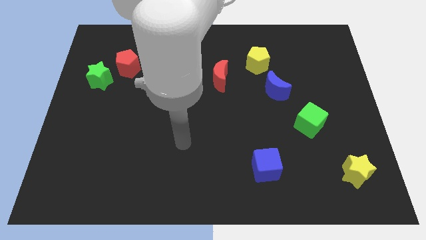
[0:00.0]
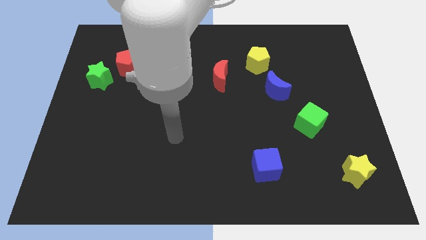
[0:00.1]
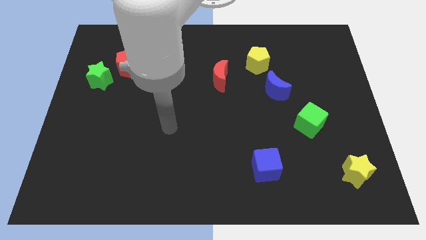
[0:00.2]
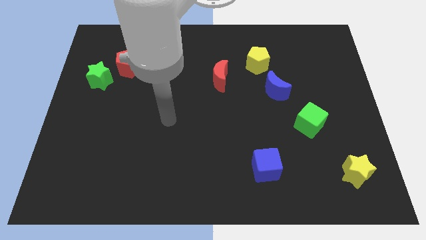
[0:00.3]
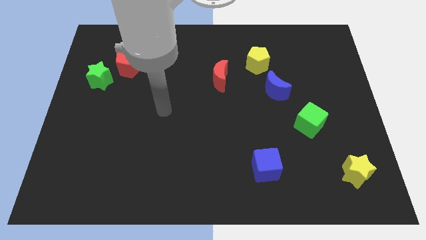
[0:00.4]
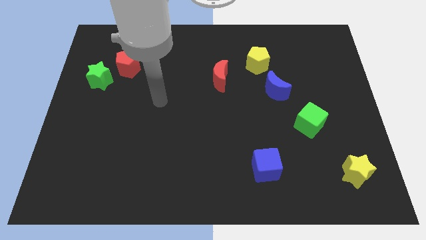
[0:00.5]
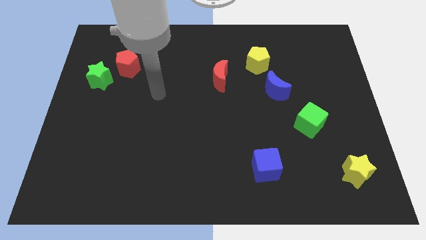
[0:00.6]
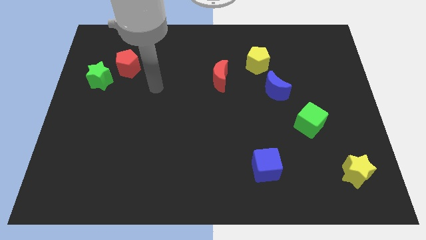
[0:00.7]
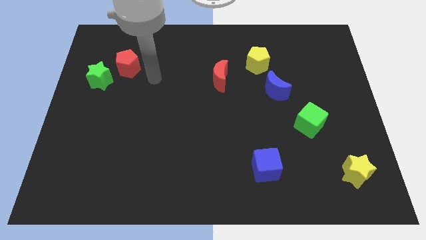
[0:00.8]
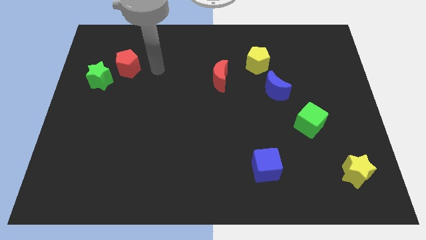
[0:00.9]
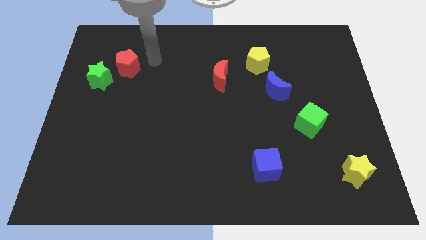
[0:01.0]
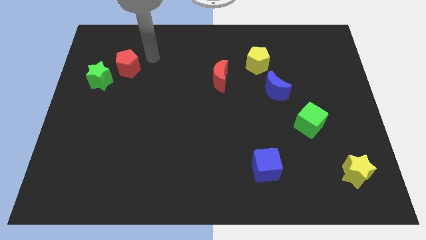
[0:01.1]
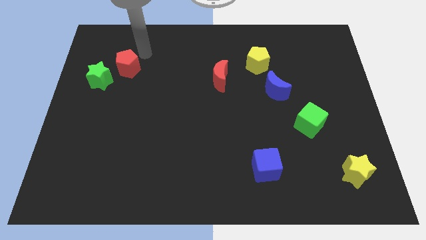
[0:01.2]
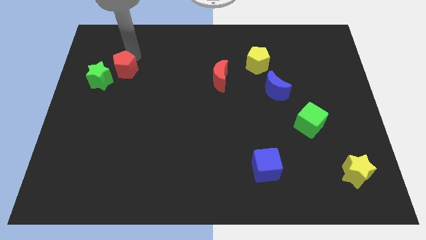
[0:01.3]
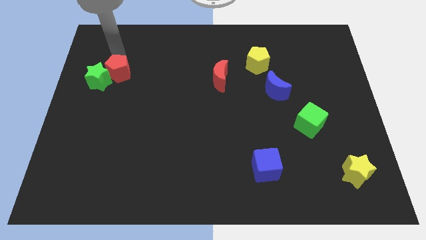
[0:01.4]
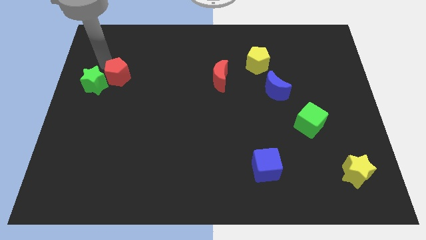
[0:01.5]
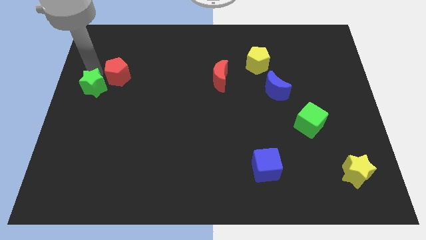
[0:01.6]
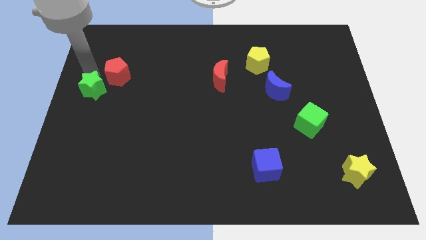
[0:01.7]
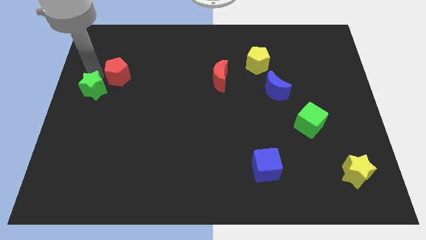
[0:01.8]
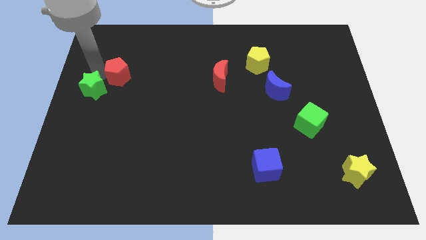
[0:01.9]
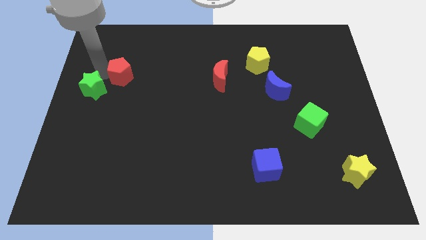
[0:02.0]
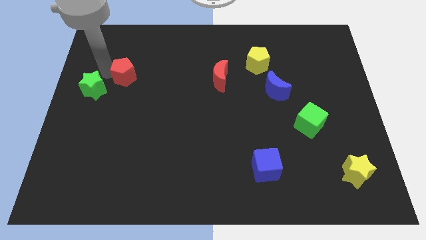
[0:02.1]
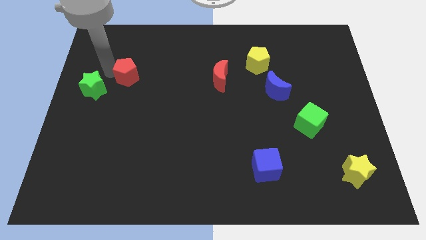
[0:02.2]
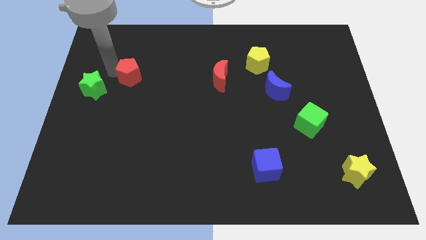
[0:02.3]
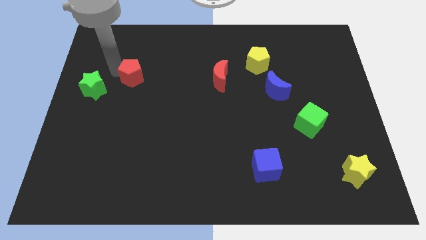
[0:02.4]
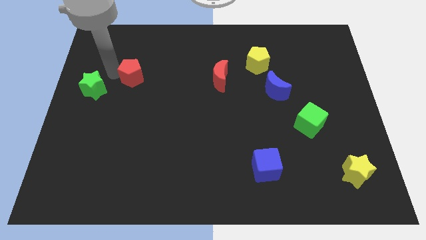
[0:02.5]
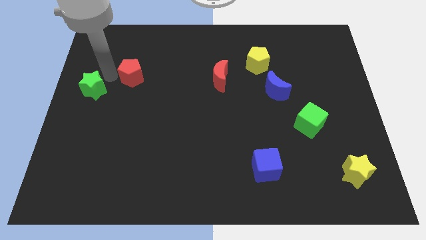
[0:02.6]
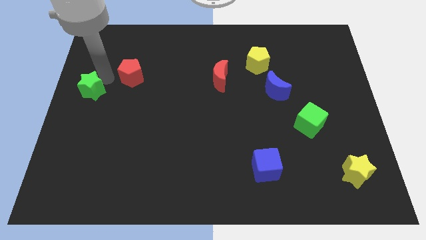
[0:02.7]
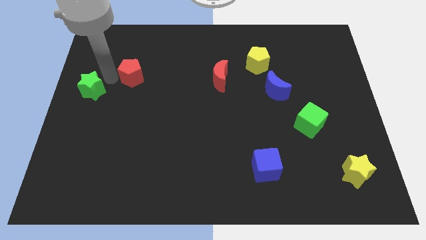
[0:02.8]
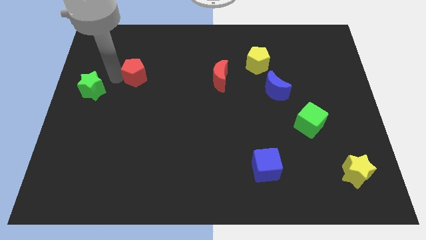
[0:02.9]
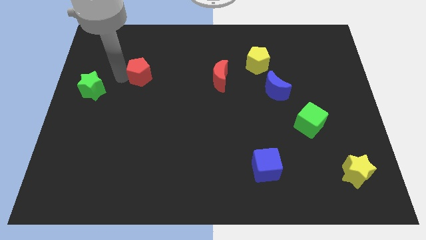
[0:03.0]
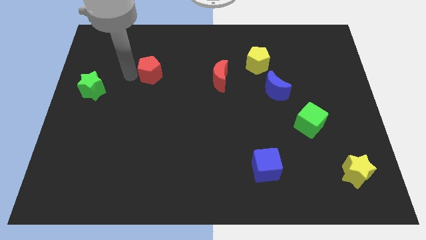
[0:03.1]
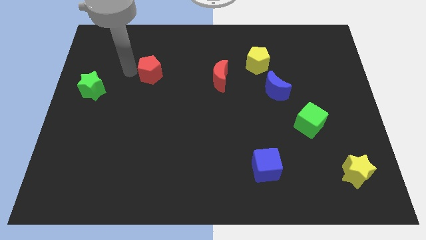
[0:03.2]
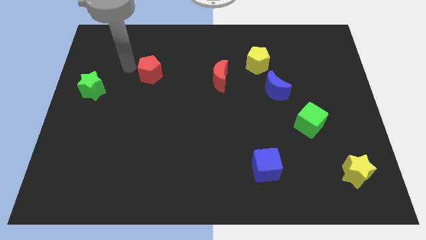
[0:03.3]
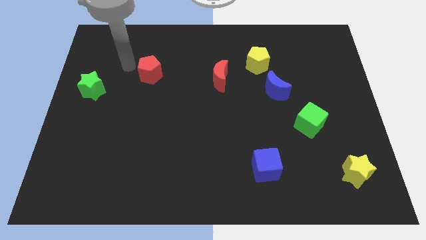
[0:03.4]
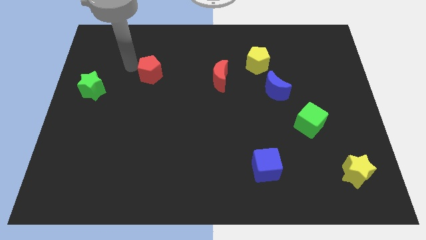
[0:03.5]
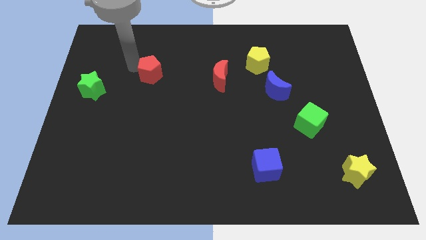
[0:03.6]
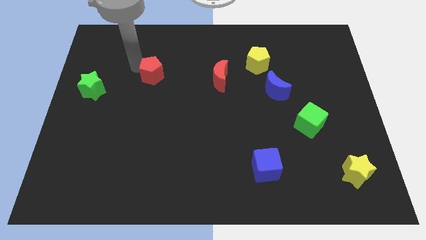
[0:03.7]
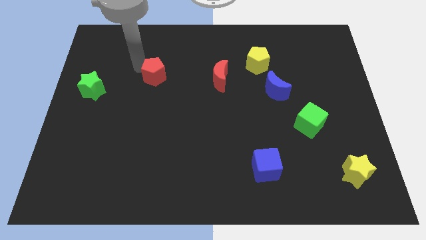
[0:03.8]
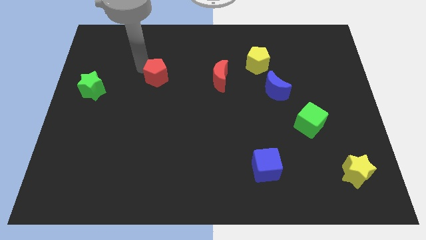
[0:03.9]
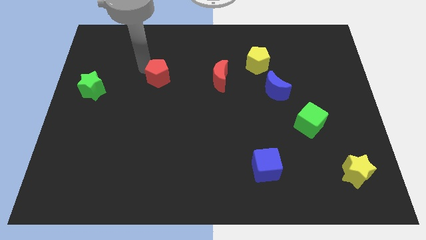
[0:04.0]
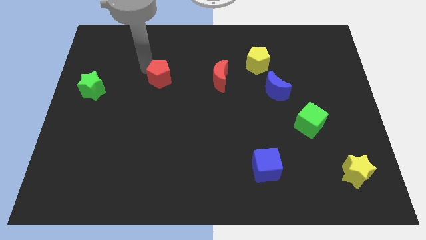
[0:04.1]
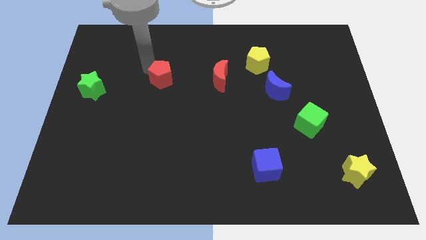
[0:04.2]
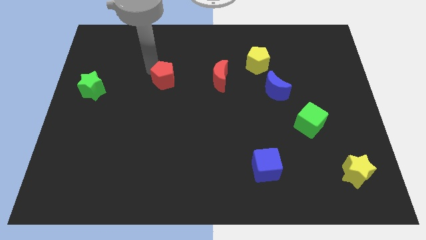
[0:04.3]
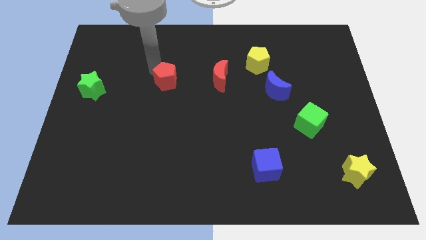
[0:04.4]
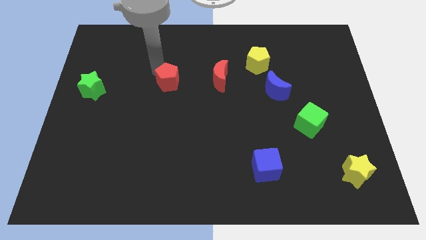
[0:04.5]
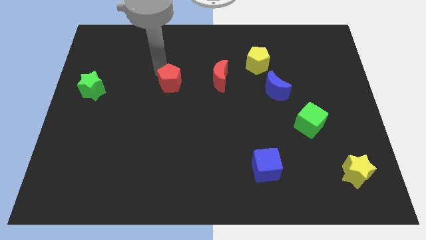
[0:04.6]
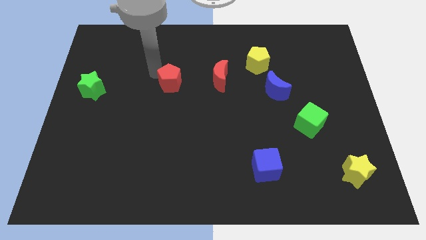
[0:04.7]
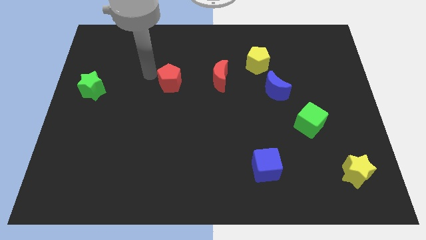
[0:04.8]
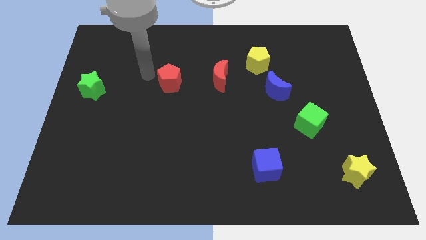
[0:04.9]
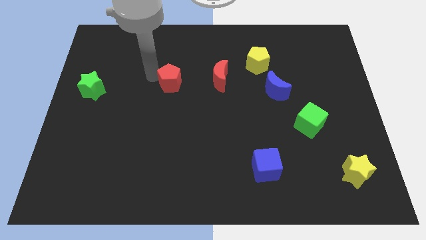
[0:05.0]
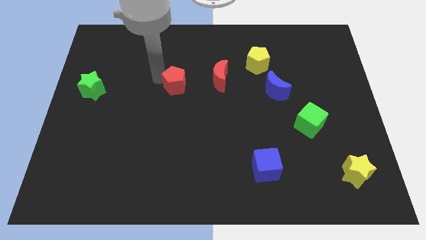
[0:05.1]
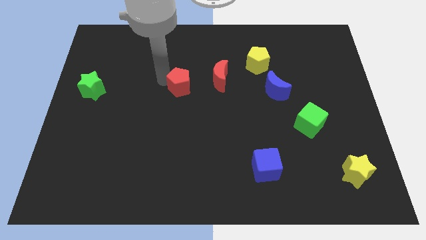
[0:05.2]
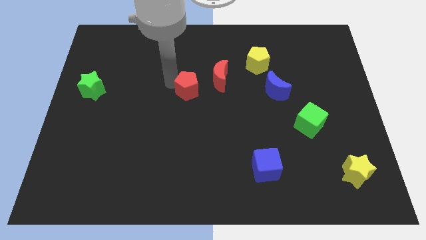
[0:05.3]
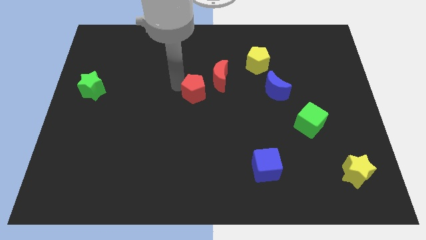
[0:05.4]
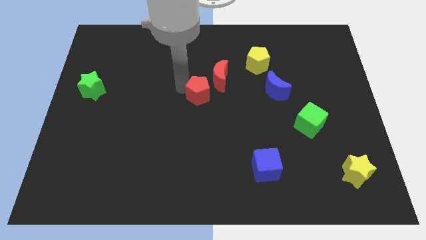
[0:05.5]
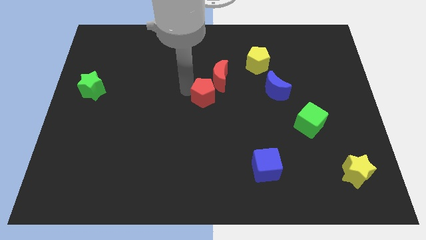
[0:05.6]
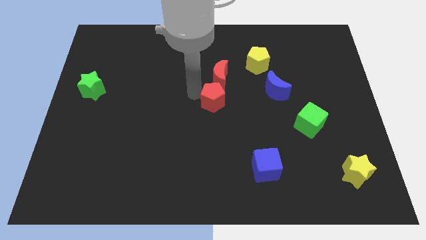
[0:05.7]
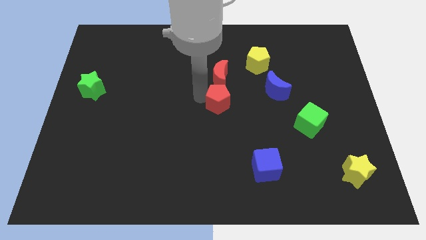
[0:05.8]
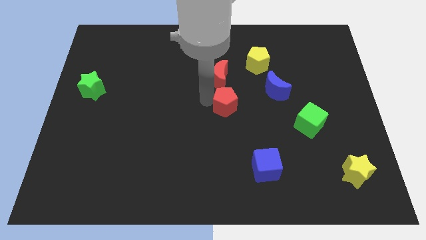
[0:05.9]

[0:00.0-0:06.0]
push the red pentagon to the bottom right side of the red moon
